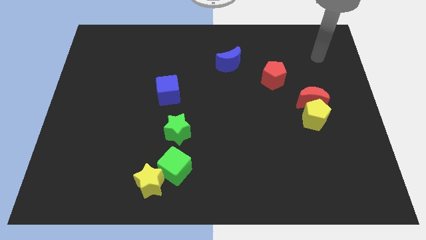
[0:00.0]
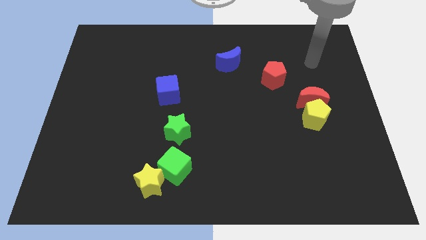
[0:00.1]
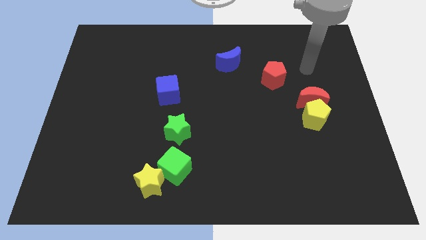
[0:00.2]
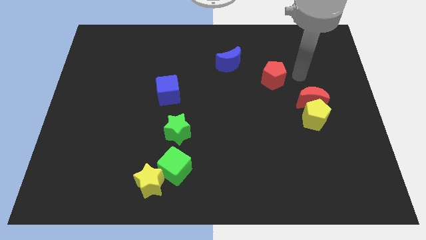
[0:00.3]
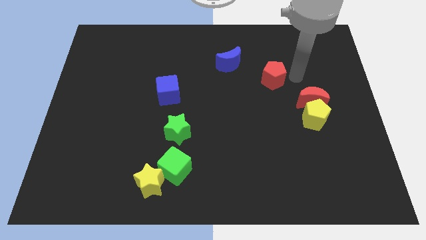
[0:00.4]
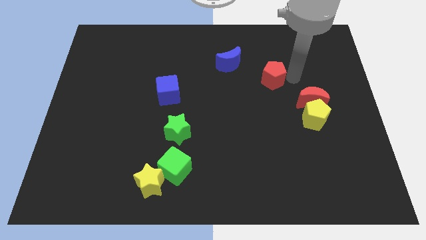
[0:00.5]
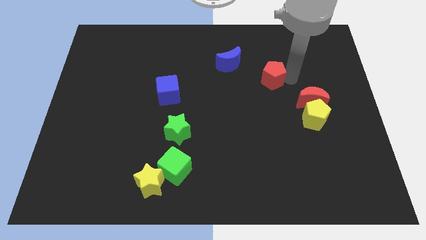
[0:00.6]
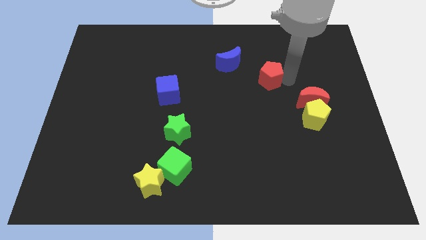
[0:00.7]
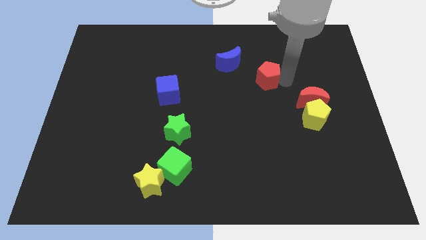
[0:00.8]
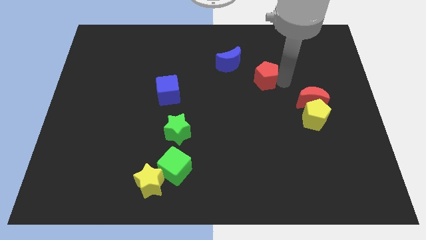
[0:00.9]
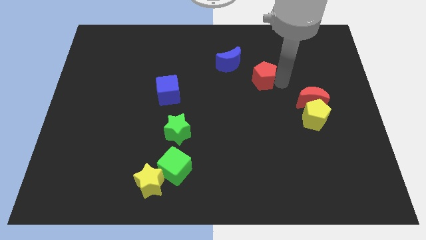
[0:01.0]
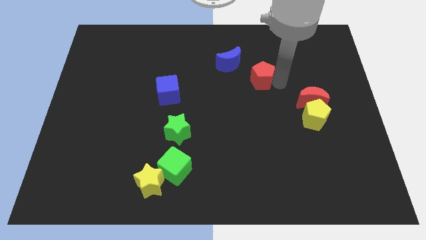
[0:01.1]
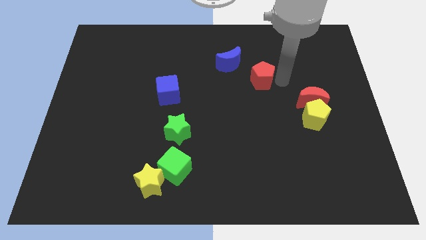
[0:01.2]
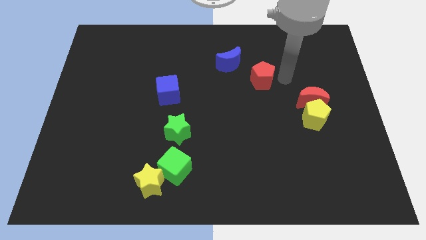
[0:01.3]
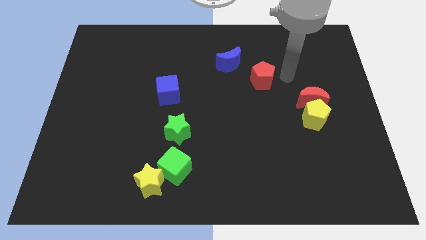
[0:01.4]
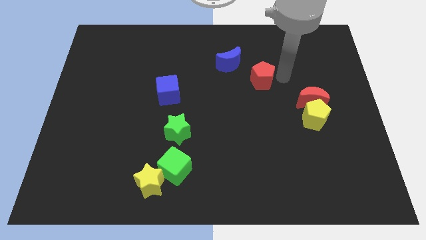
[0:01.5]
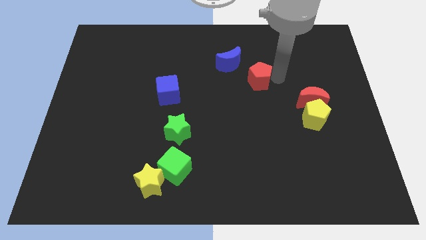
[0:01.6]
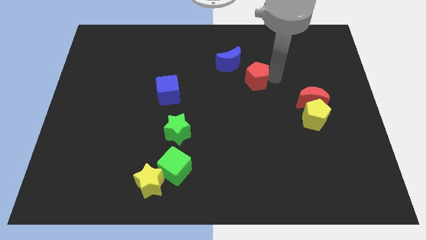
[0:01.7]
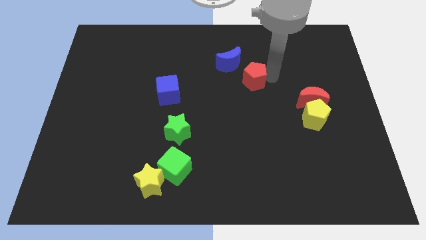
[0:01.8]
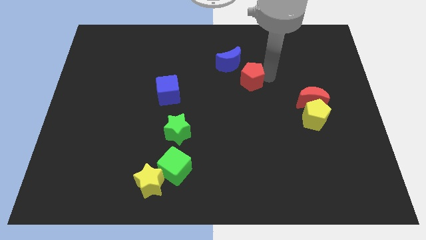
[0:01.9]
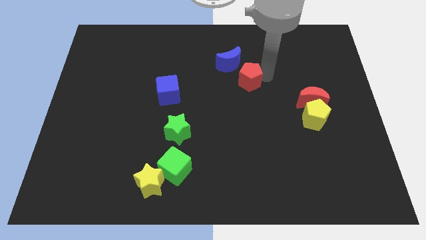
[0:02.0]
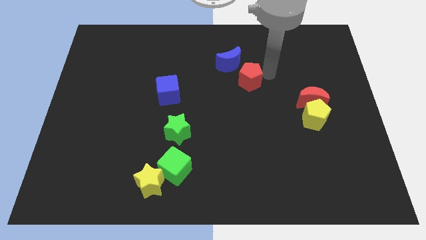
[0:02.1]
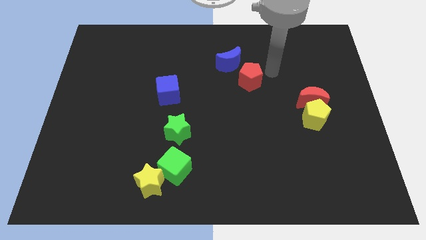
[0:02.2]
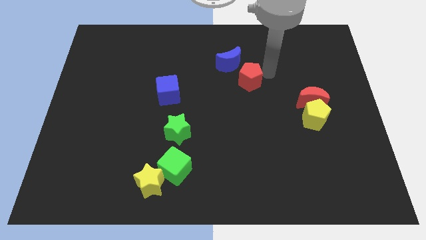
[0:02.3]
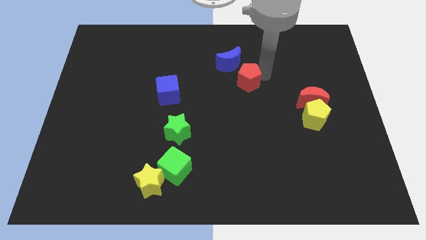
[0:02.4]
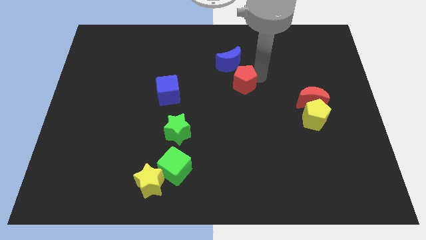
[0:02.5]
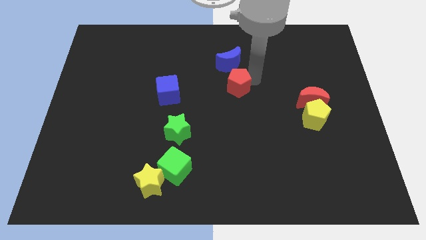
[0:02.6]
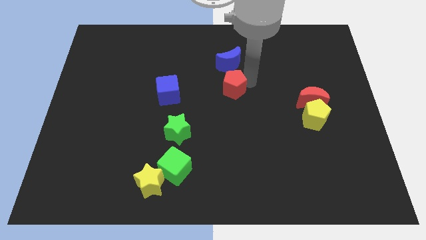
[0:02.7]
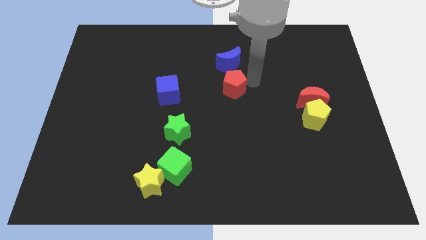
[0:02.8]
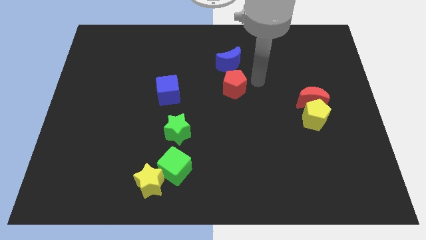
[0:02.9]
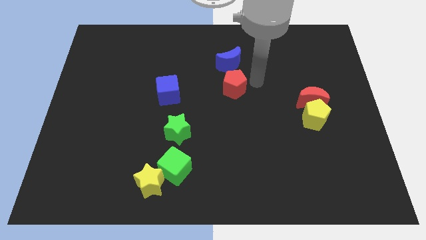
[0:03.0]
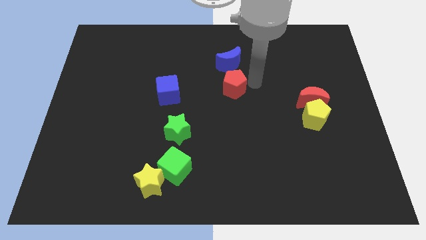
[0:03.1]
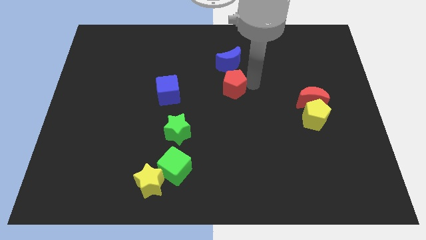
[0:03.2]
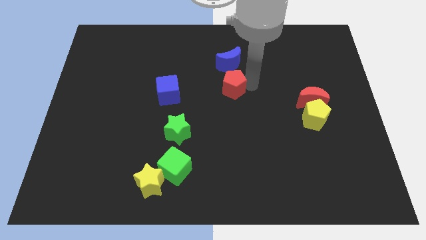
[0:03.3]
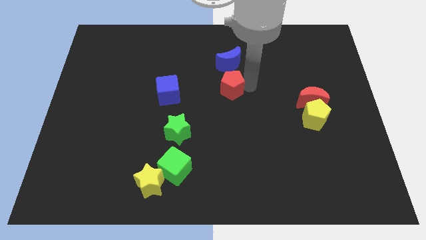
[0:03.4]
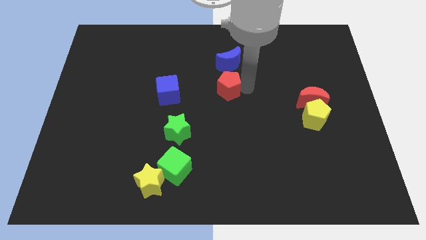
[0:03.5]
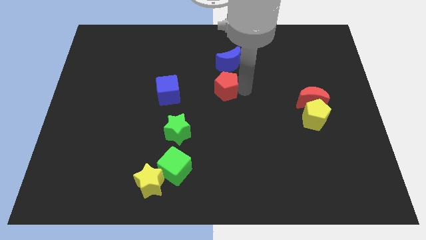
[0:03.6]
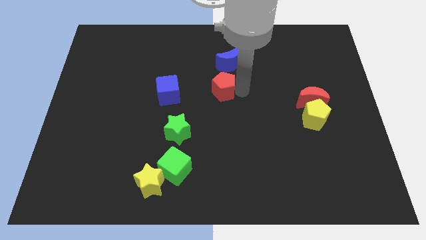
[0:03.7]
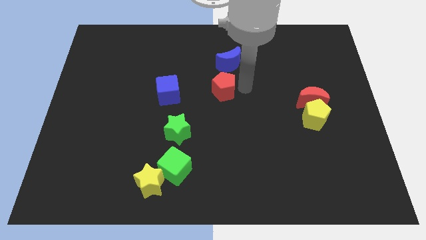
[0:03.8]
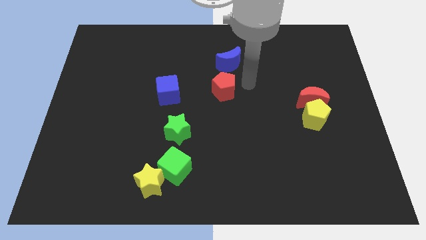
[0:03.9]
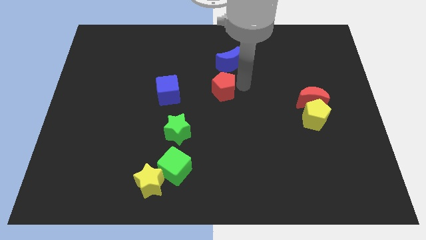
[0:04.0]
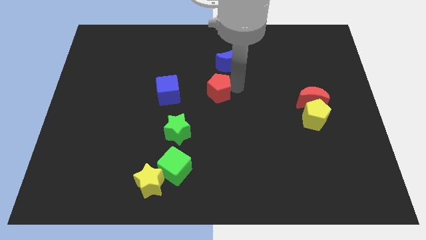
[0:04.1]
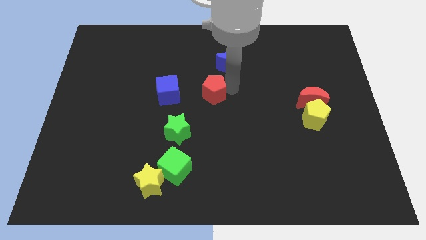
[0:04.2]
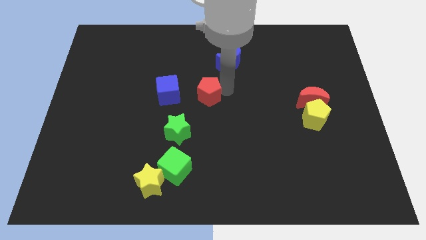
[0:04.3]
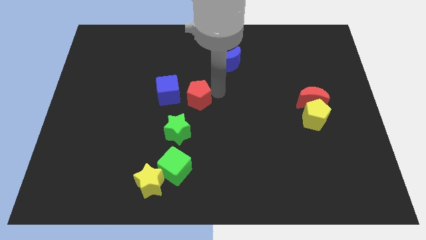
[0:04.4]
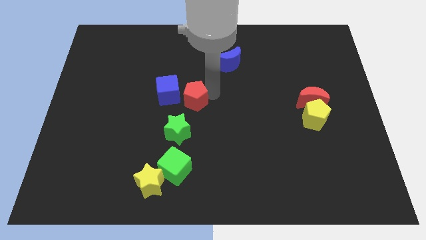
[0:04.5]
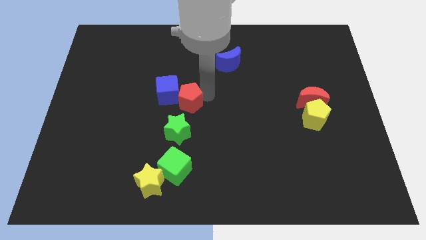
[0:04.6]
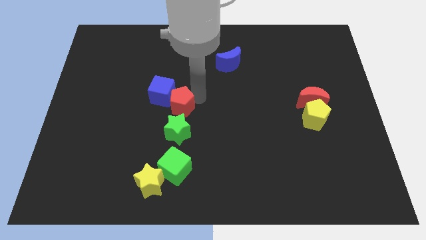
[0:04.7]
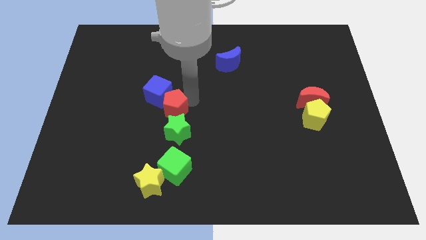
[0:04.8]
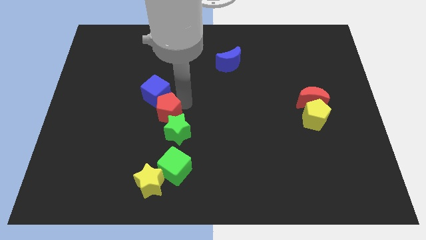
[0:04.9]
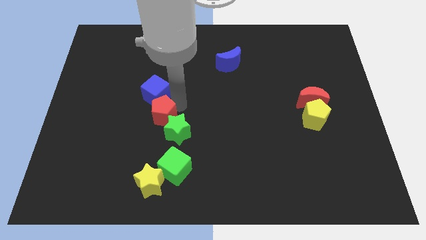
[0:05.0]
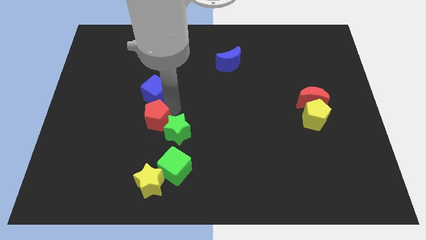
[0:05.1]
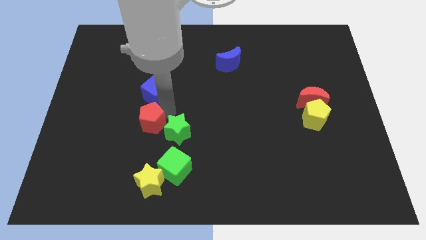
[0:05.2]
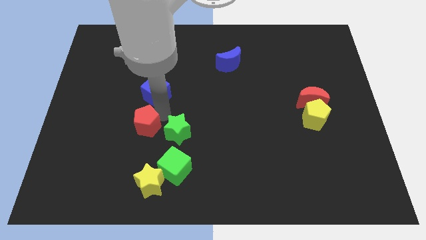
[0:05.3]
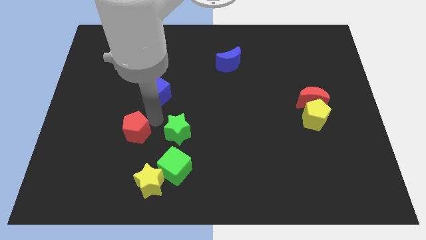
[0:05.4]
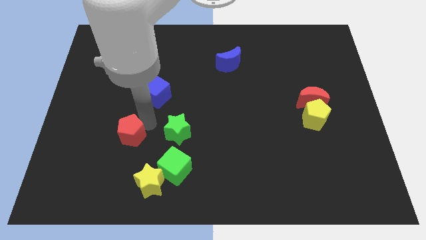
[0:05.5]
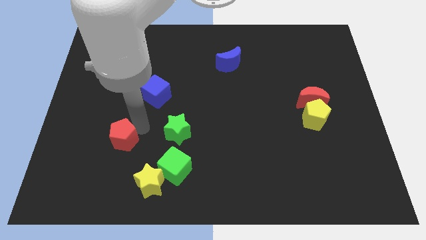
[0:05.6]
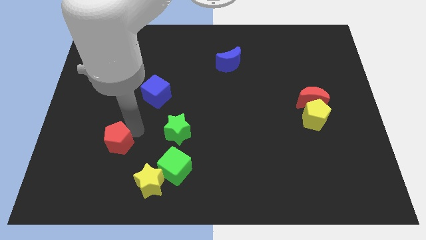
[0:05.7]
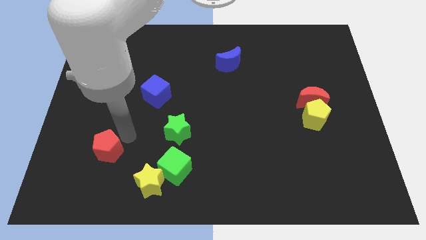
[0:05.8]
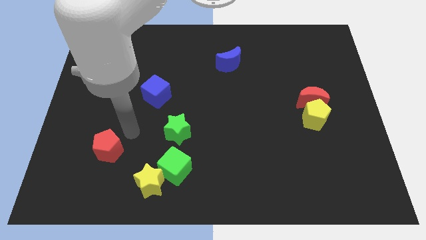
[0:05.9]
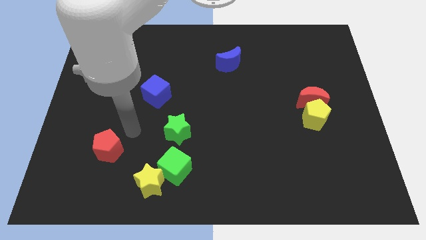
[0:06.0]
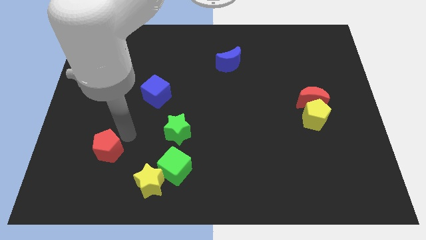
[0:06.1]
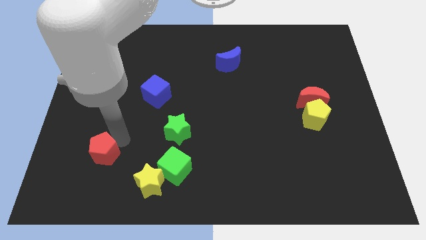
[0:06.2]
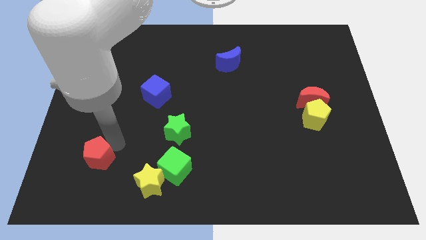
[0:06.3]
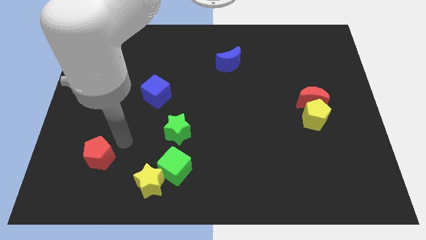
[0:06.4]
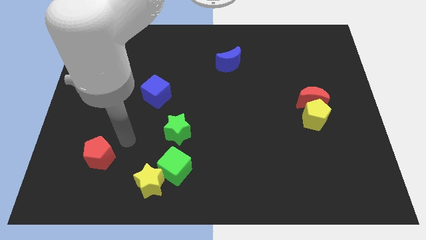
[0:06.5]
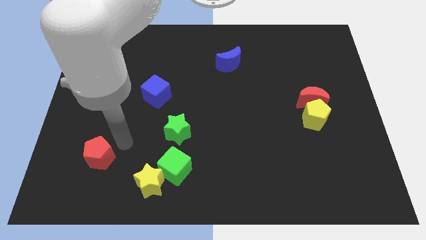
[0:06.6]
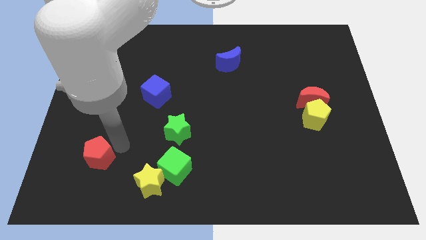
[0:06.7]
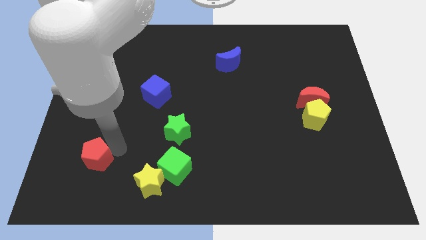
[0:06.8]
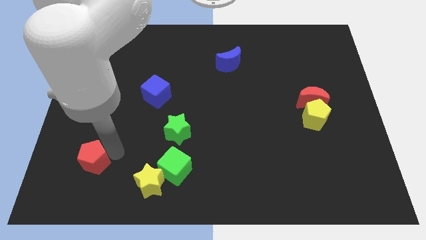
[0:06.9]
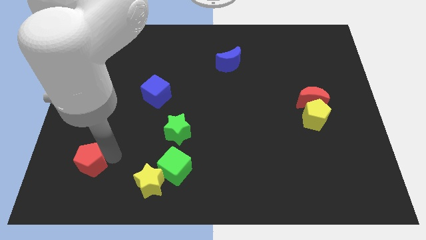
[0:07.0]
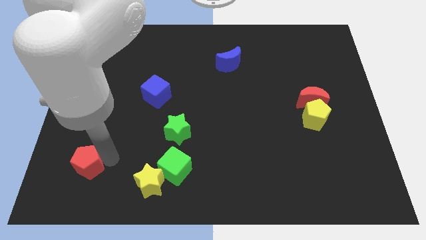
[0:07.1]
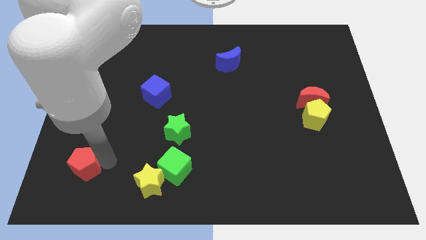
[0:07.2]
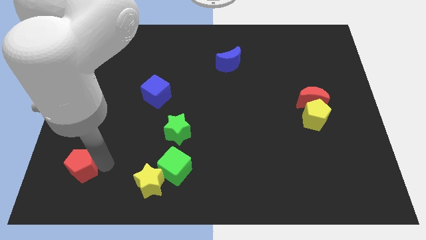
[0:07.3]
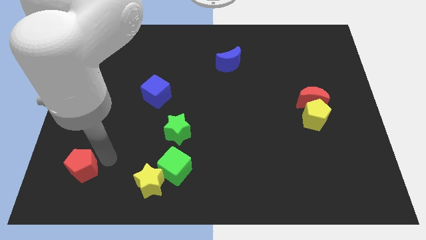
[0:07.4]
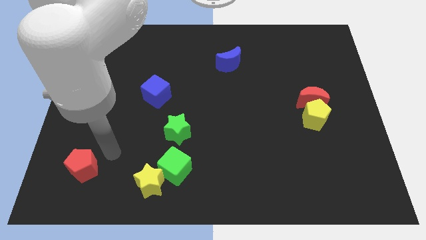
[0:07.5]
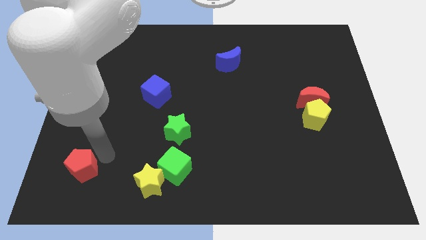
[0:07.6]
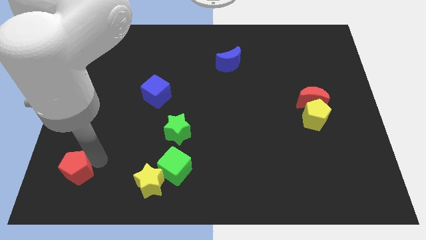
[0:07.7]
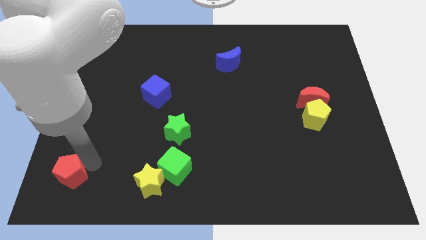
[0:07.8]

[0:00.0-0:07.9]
put the red pentagon to the bottom left of the board
